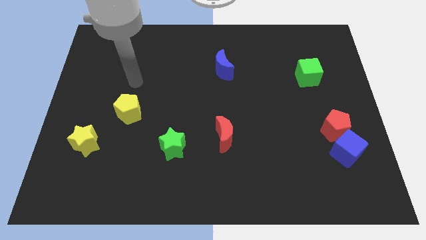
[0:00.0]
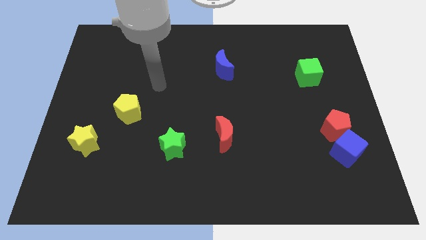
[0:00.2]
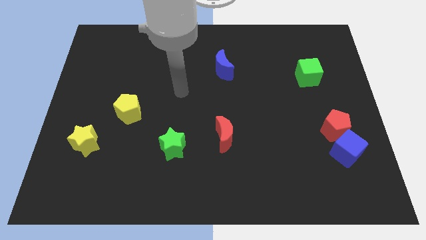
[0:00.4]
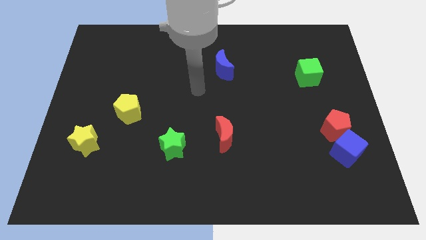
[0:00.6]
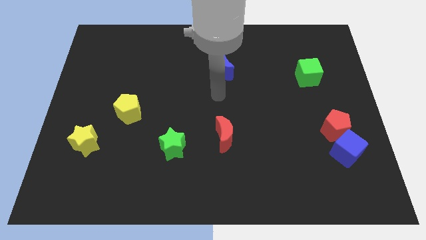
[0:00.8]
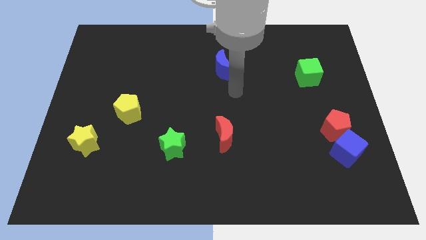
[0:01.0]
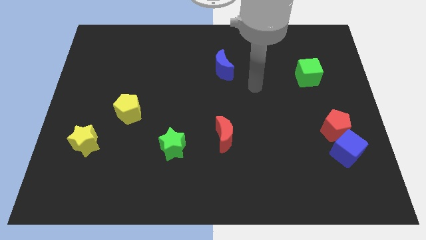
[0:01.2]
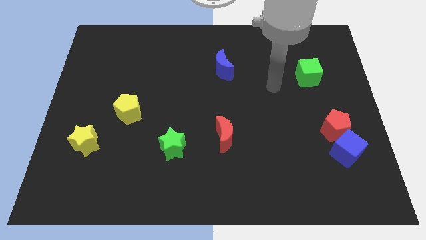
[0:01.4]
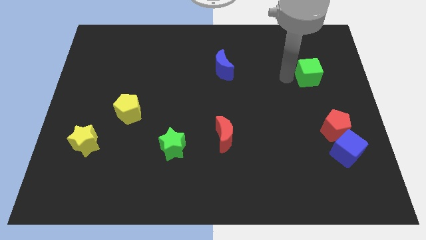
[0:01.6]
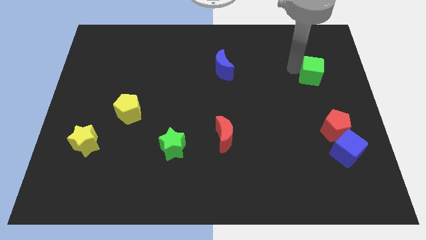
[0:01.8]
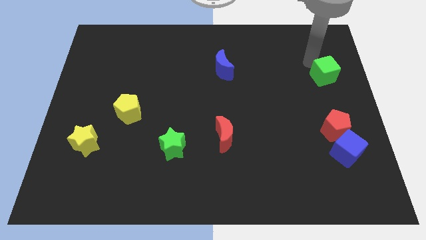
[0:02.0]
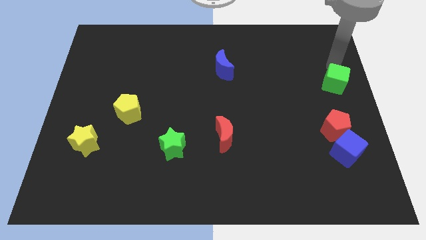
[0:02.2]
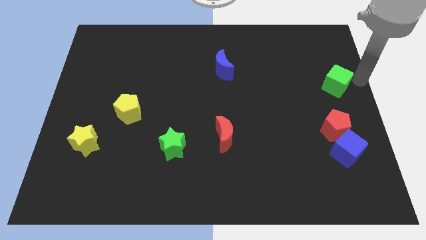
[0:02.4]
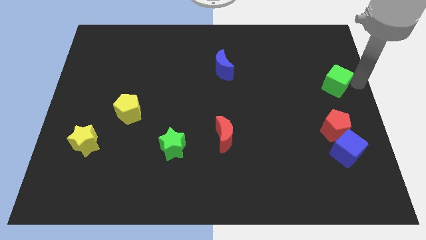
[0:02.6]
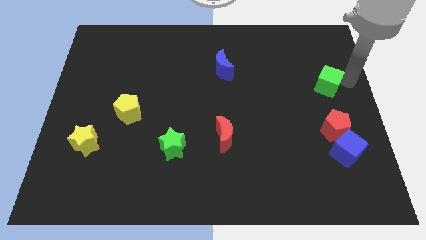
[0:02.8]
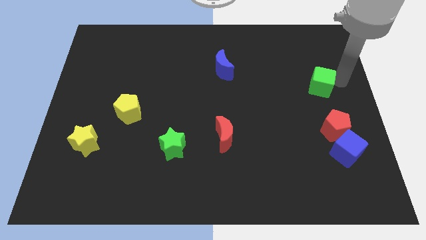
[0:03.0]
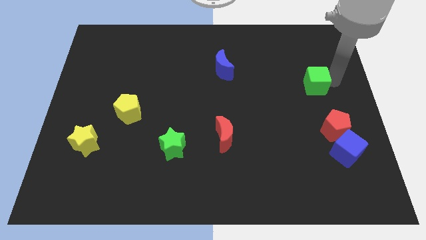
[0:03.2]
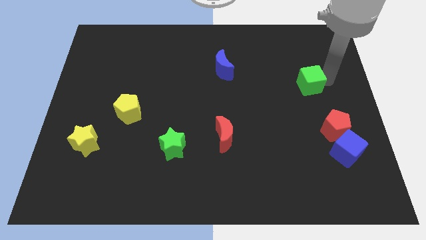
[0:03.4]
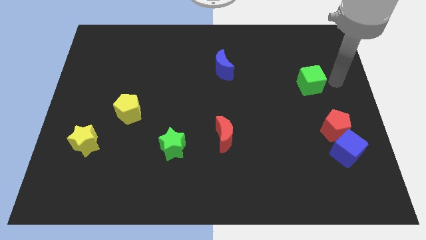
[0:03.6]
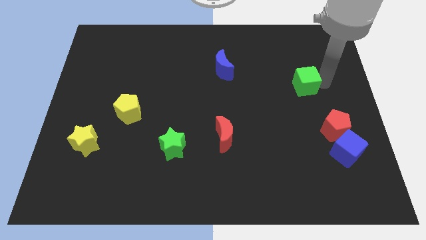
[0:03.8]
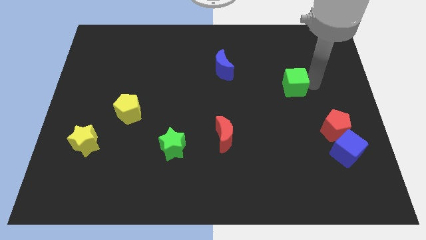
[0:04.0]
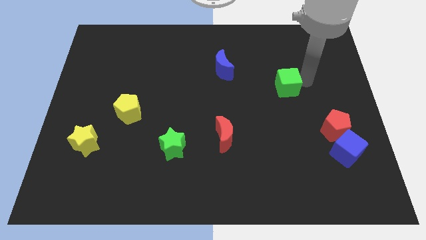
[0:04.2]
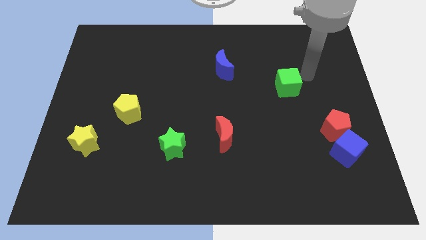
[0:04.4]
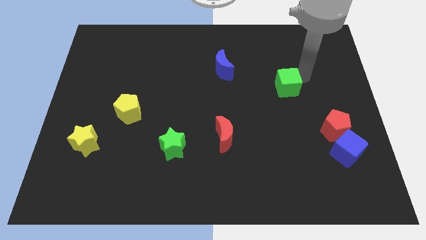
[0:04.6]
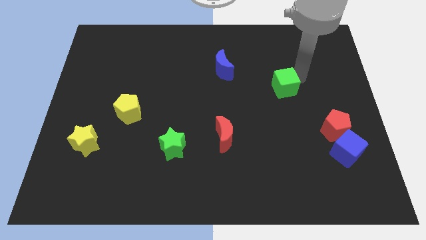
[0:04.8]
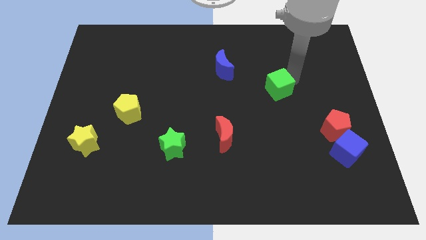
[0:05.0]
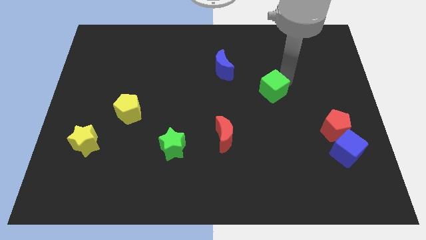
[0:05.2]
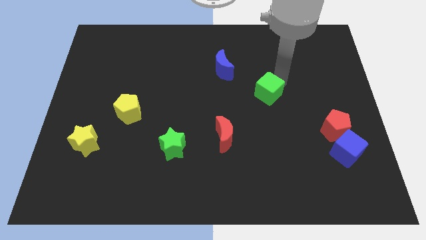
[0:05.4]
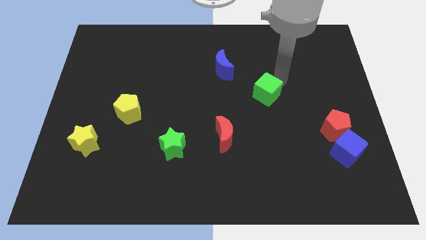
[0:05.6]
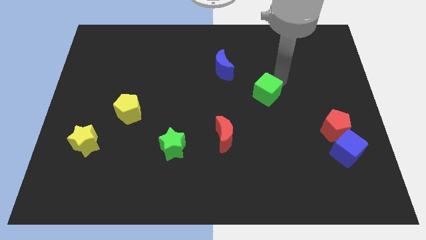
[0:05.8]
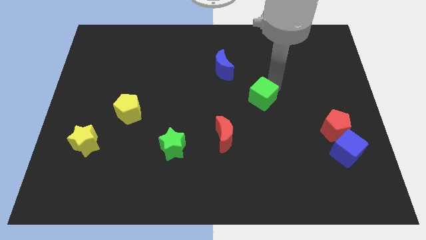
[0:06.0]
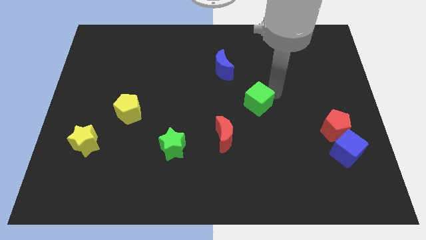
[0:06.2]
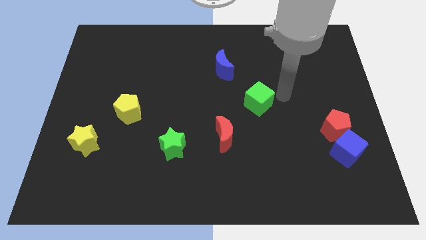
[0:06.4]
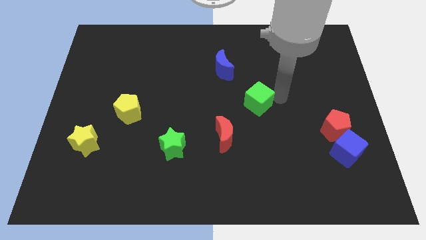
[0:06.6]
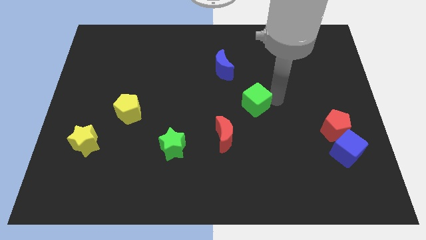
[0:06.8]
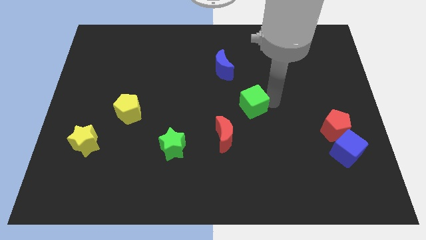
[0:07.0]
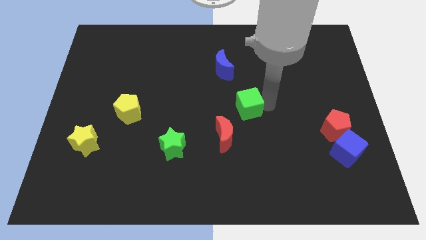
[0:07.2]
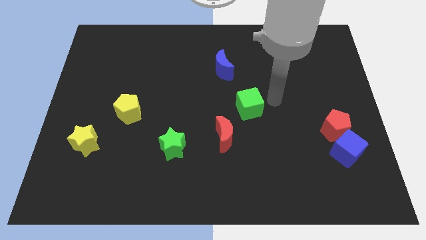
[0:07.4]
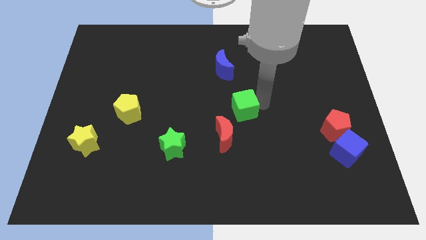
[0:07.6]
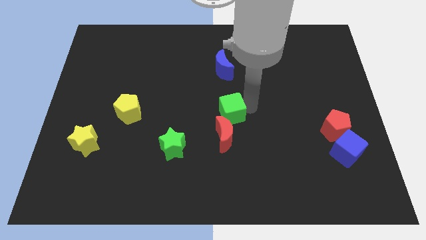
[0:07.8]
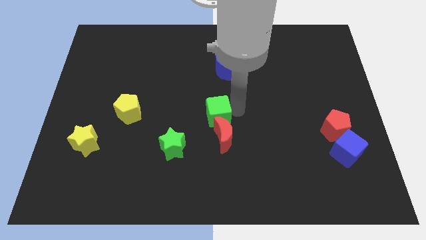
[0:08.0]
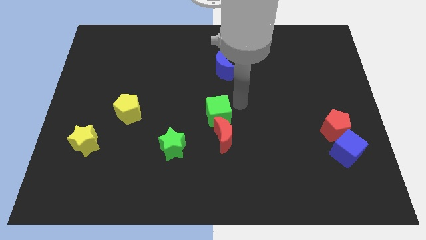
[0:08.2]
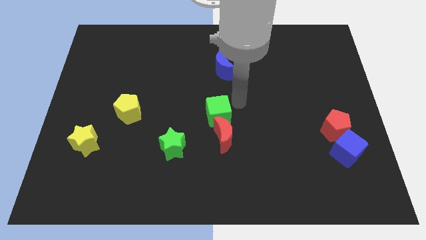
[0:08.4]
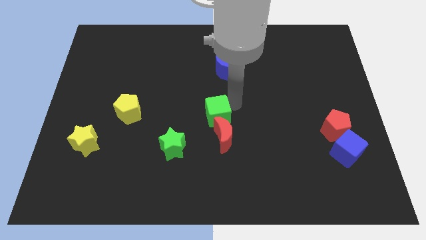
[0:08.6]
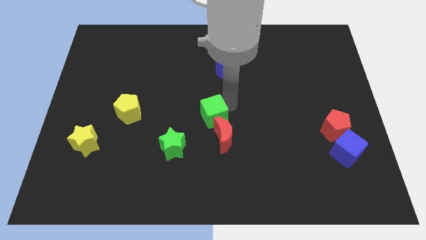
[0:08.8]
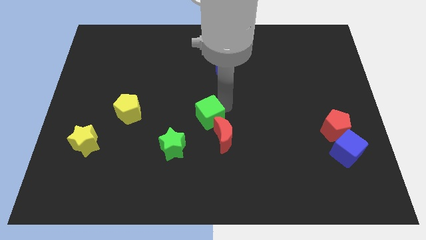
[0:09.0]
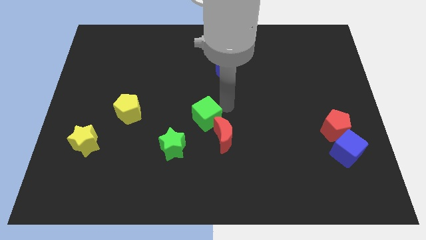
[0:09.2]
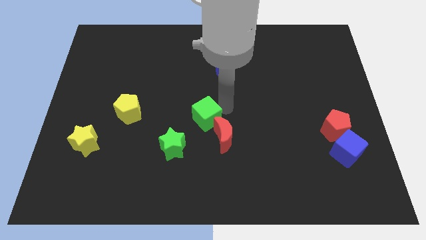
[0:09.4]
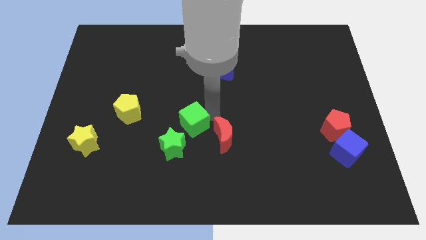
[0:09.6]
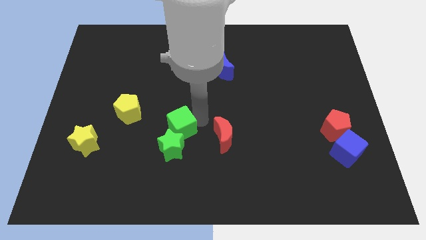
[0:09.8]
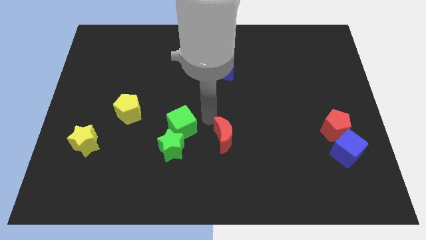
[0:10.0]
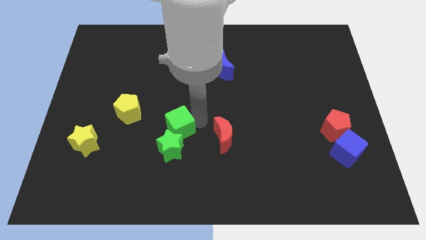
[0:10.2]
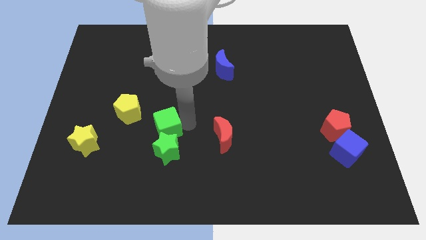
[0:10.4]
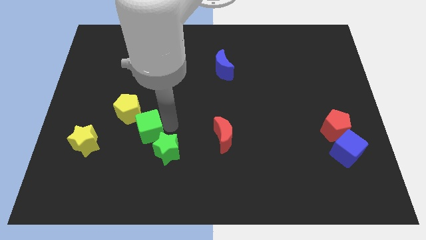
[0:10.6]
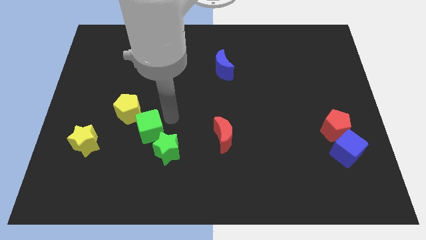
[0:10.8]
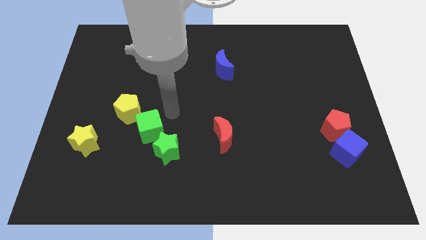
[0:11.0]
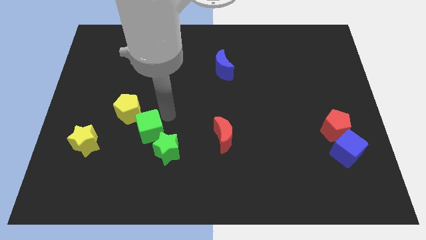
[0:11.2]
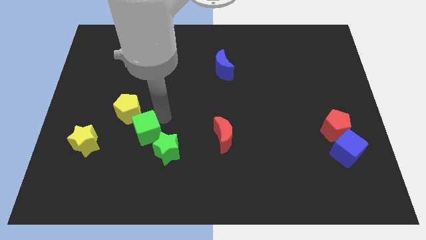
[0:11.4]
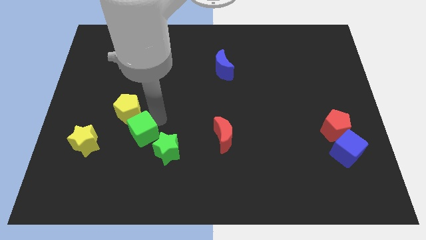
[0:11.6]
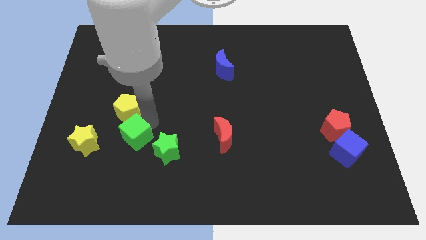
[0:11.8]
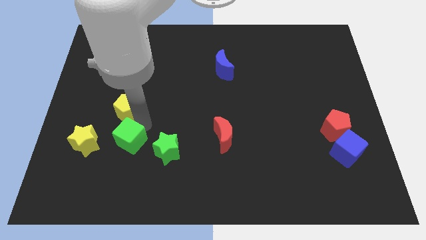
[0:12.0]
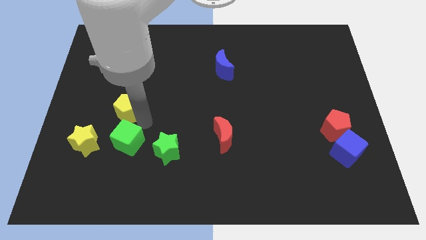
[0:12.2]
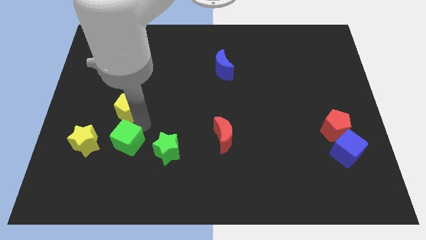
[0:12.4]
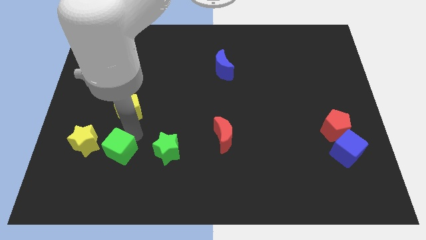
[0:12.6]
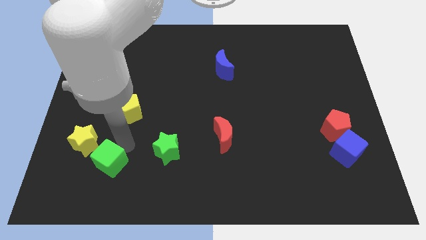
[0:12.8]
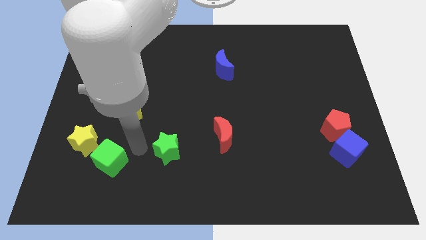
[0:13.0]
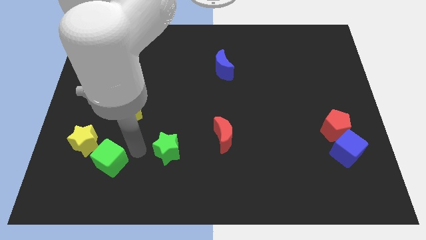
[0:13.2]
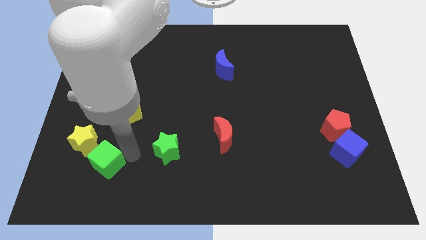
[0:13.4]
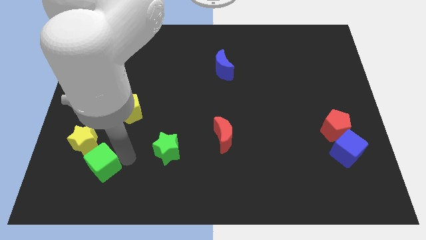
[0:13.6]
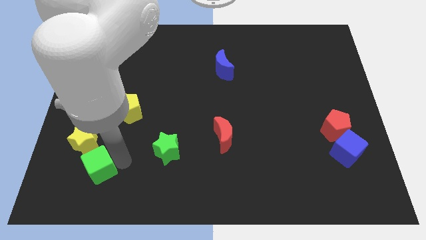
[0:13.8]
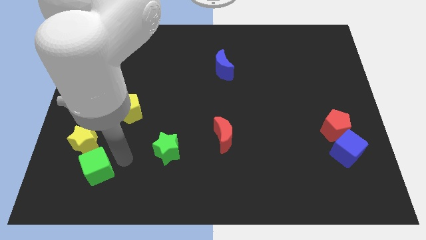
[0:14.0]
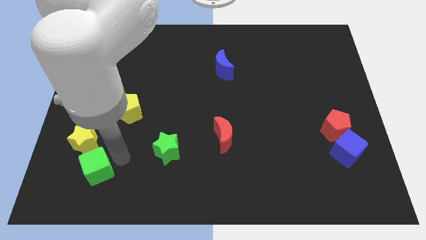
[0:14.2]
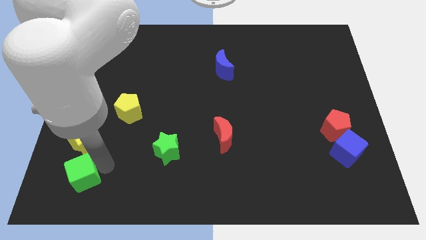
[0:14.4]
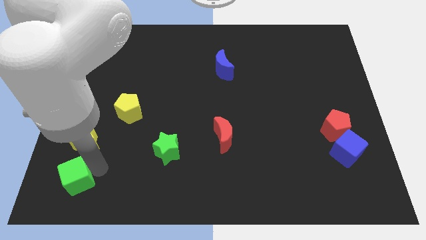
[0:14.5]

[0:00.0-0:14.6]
push the green cube to the bottom left of the board

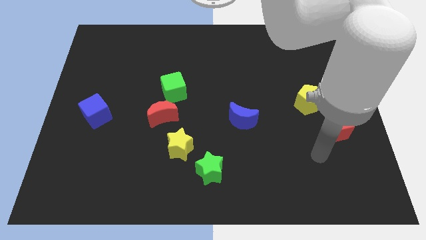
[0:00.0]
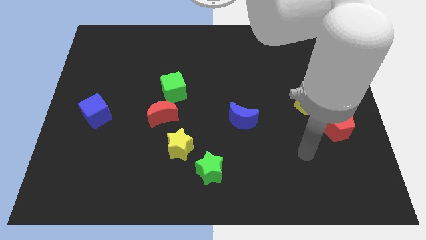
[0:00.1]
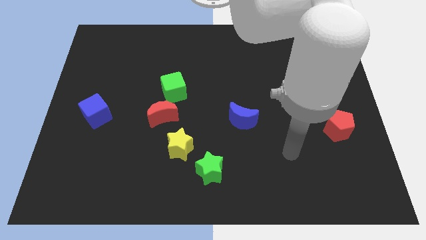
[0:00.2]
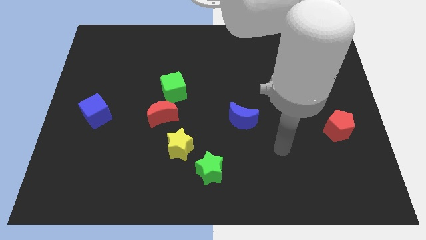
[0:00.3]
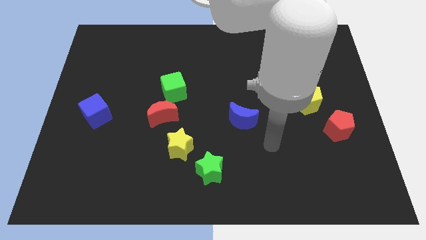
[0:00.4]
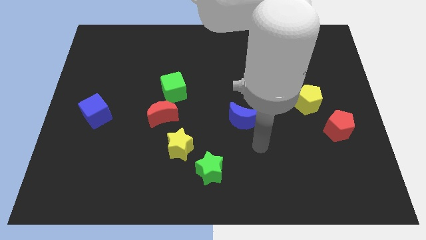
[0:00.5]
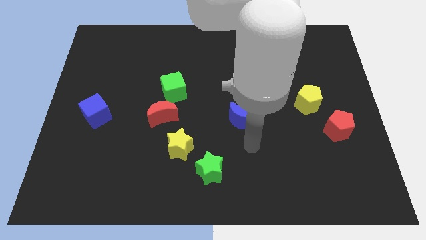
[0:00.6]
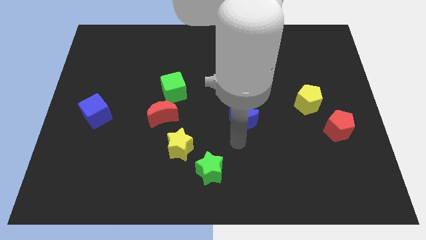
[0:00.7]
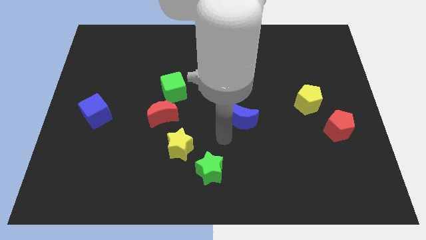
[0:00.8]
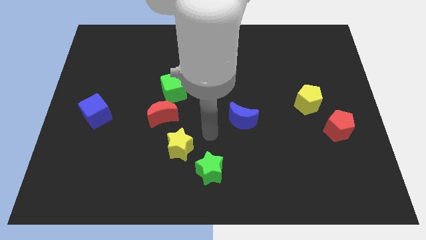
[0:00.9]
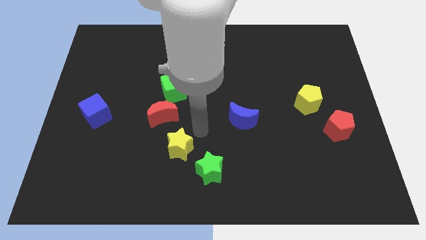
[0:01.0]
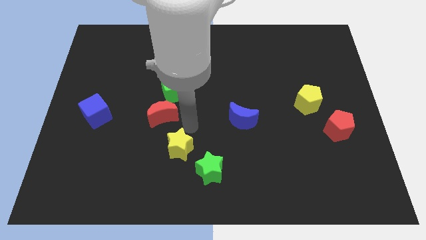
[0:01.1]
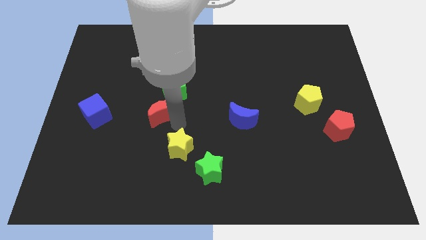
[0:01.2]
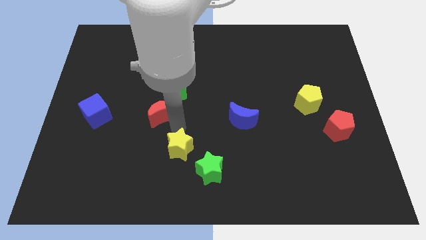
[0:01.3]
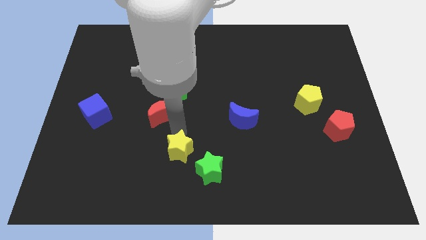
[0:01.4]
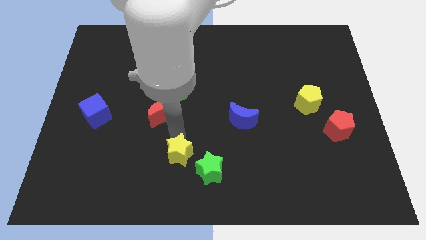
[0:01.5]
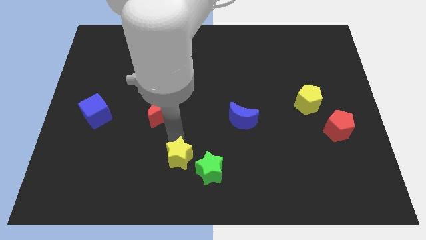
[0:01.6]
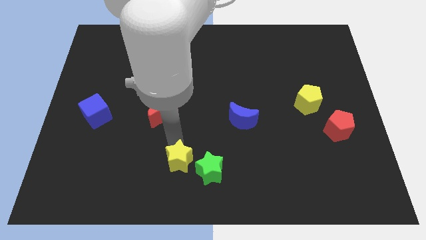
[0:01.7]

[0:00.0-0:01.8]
slide the yellow star to the bottom side
